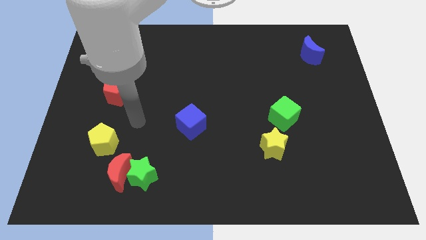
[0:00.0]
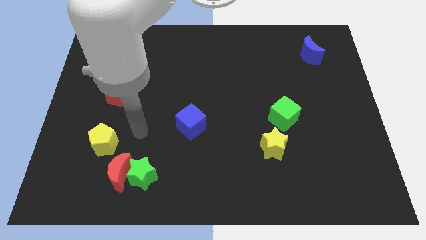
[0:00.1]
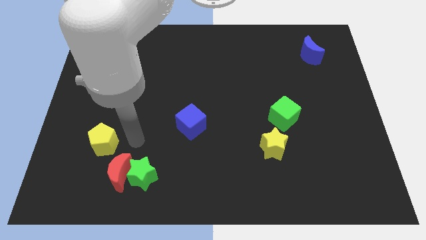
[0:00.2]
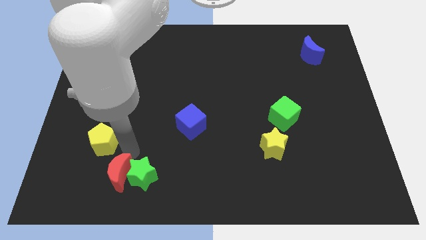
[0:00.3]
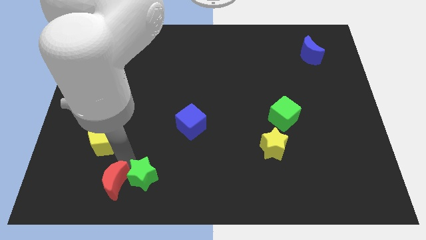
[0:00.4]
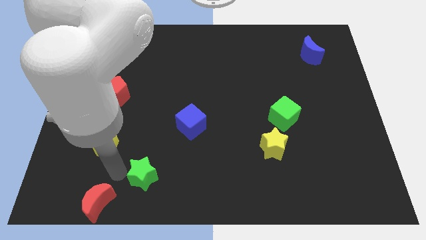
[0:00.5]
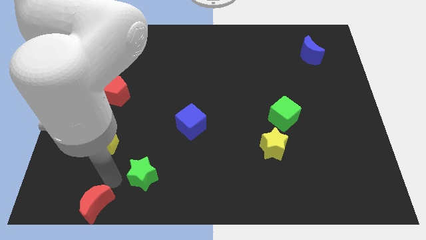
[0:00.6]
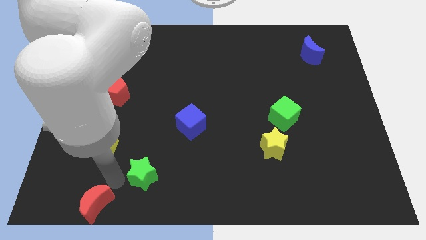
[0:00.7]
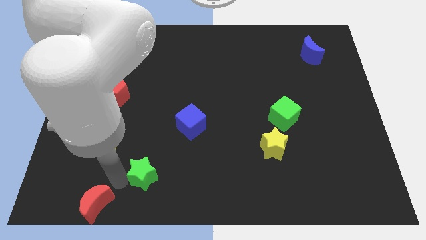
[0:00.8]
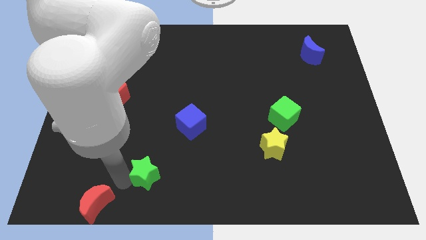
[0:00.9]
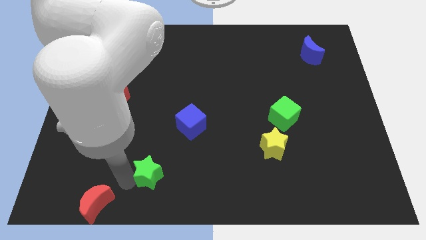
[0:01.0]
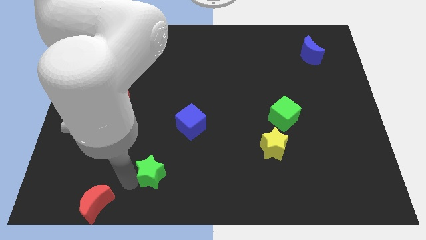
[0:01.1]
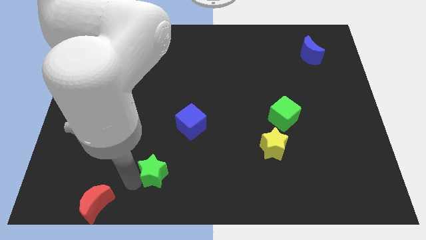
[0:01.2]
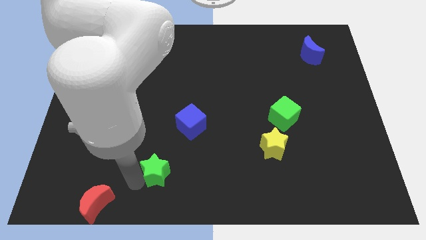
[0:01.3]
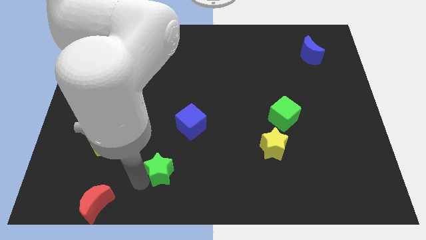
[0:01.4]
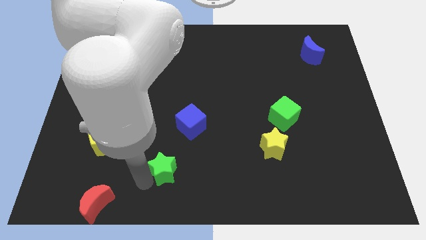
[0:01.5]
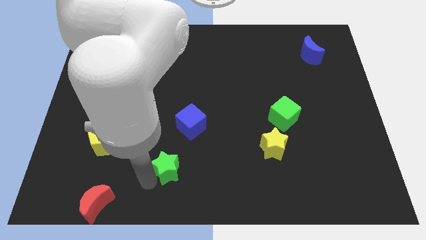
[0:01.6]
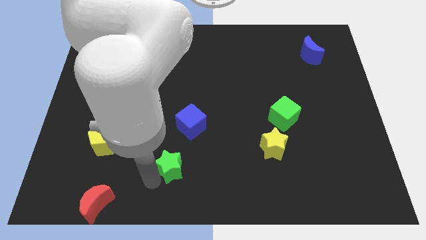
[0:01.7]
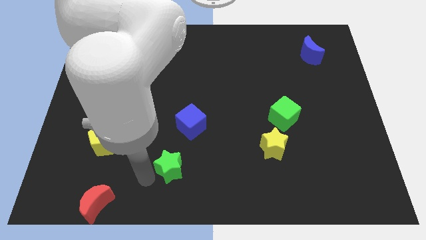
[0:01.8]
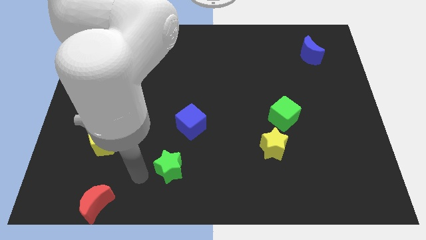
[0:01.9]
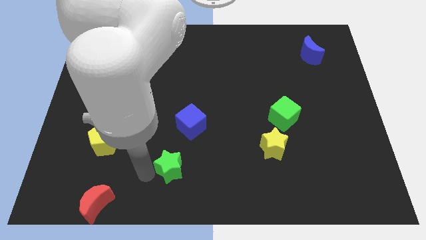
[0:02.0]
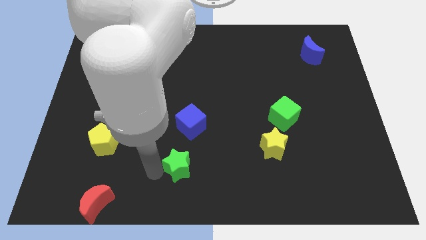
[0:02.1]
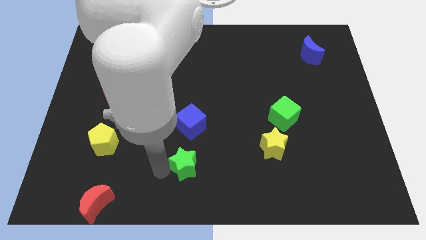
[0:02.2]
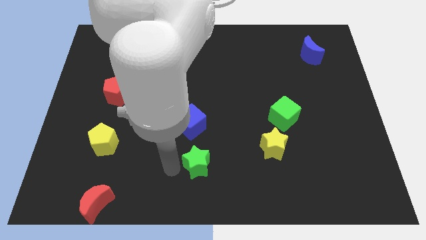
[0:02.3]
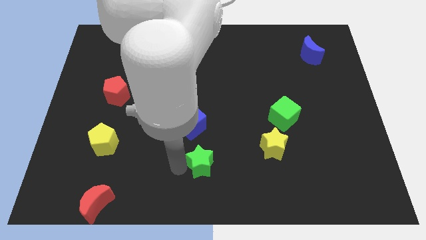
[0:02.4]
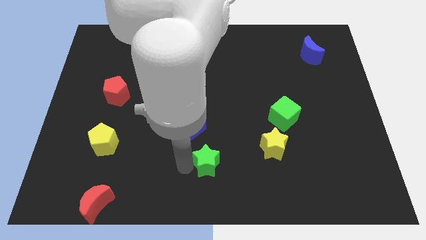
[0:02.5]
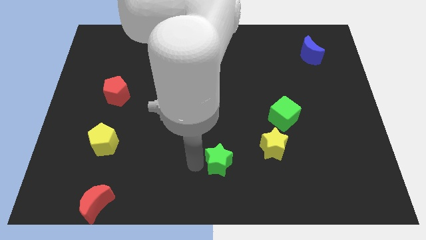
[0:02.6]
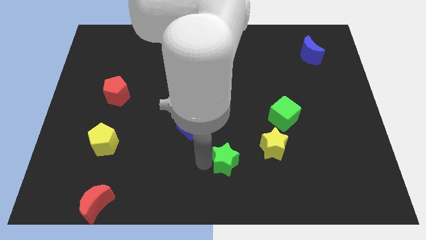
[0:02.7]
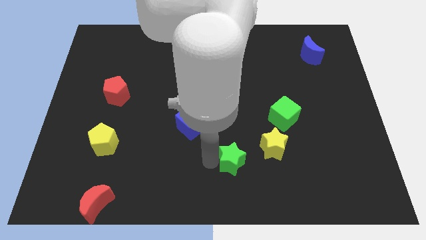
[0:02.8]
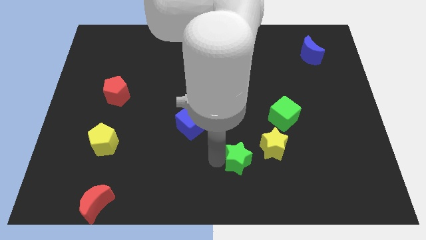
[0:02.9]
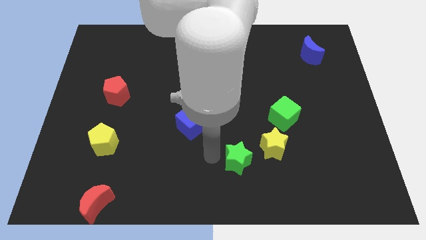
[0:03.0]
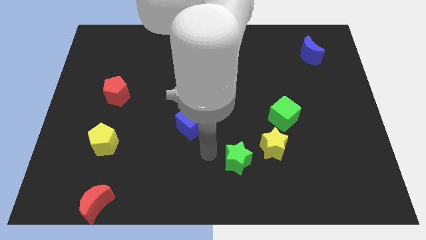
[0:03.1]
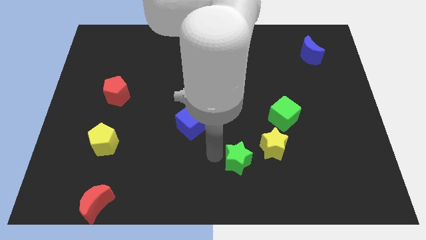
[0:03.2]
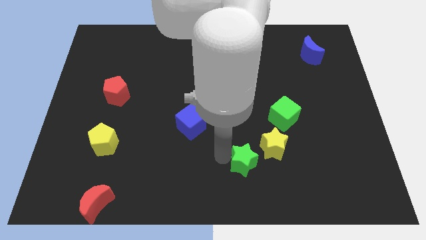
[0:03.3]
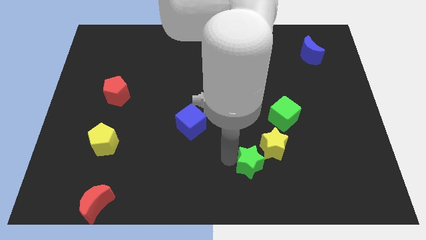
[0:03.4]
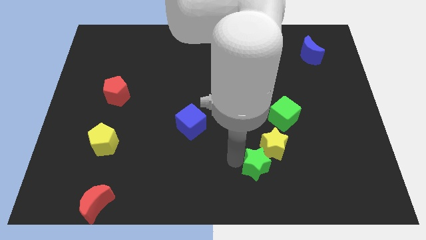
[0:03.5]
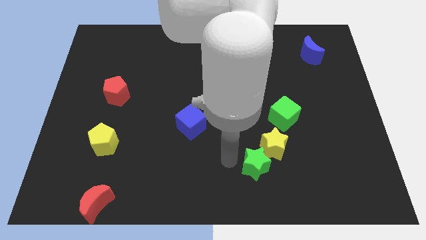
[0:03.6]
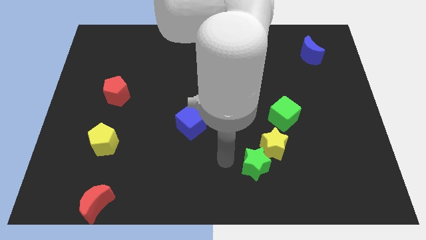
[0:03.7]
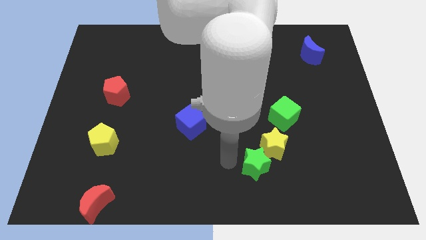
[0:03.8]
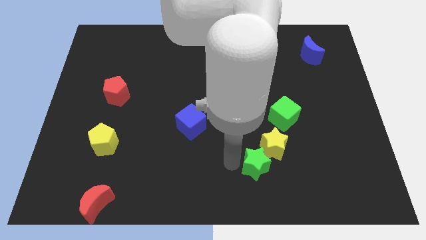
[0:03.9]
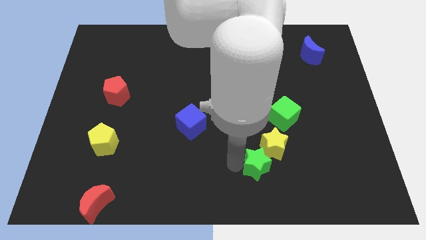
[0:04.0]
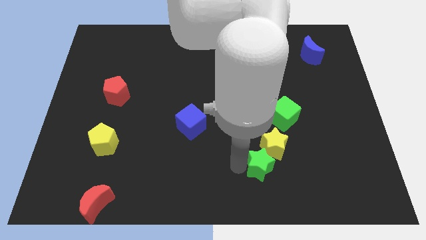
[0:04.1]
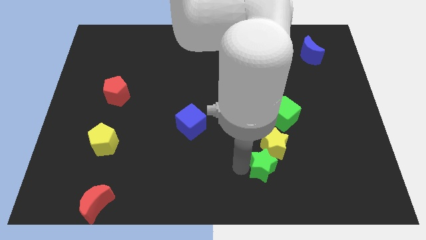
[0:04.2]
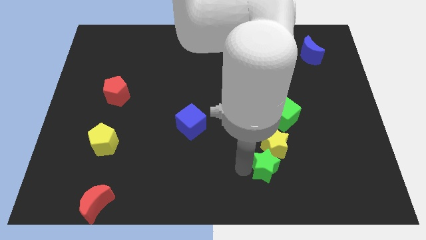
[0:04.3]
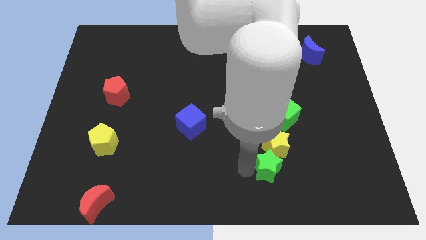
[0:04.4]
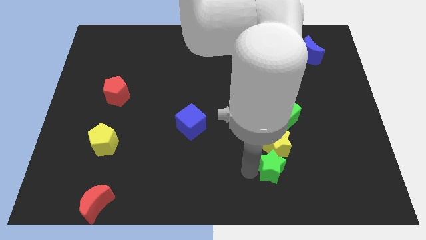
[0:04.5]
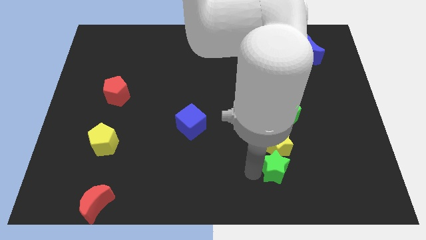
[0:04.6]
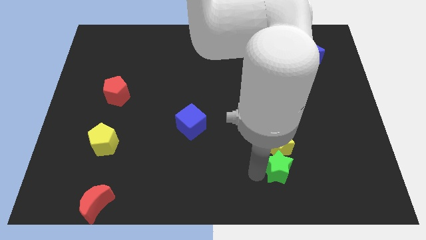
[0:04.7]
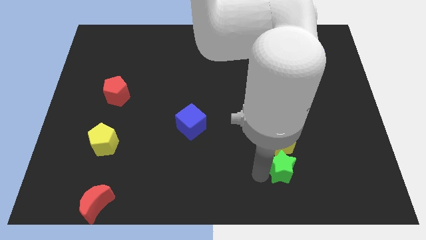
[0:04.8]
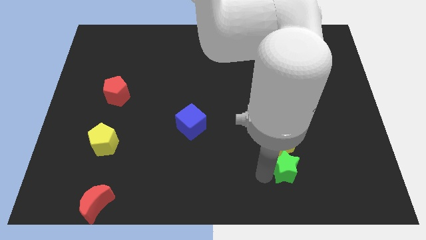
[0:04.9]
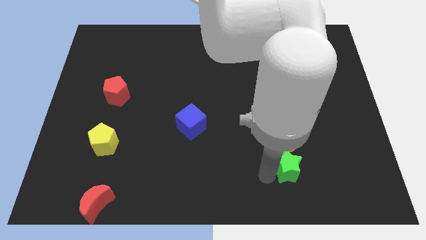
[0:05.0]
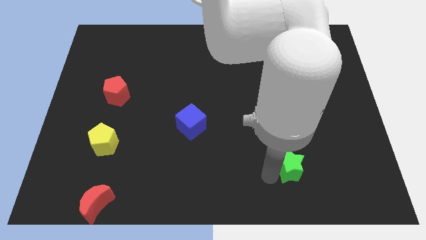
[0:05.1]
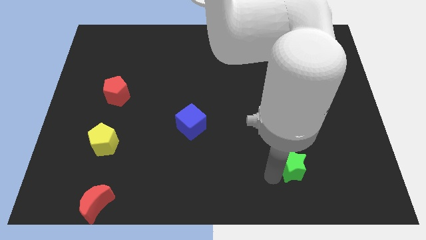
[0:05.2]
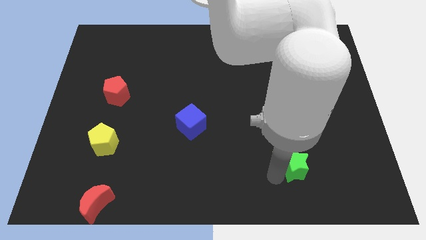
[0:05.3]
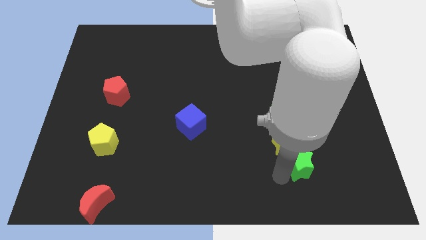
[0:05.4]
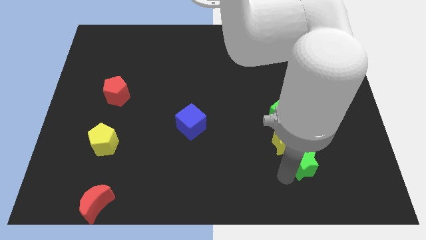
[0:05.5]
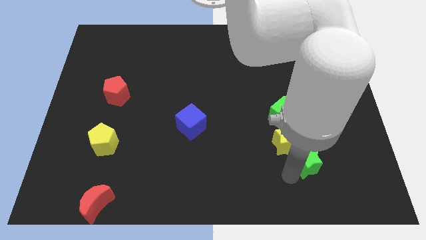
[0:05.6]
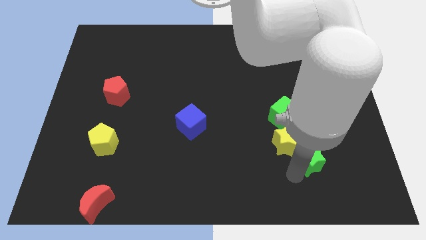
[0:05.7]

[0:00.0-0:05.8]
push the green star right of the yellow star

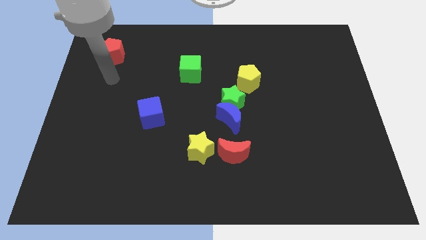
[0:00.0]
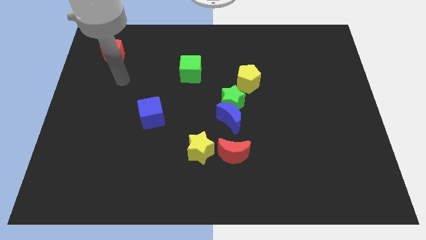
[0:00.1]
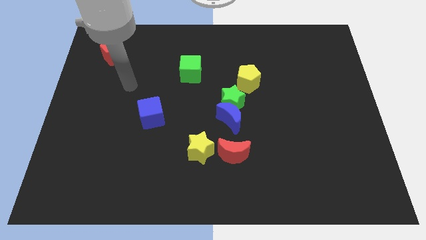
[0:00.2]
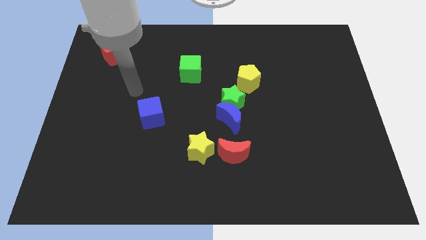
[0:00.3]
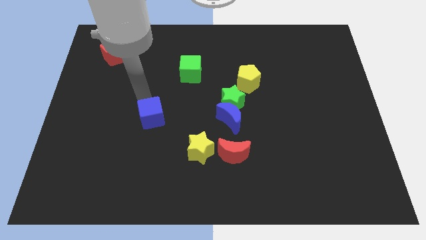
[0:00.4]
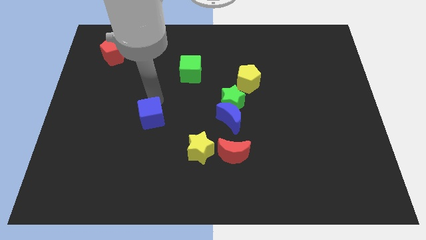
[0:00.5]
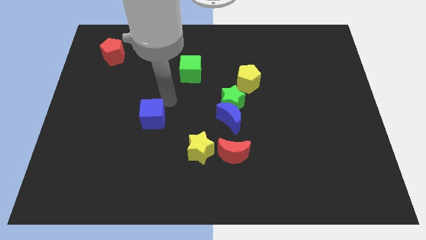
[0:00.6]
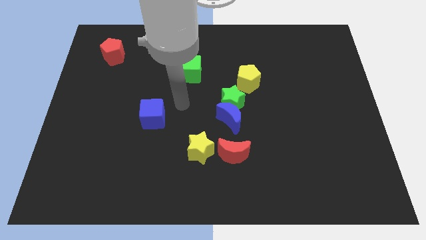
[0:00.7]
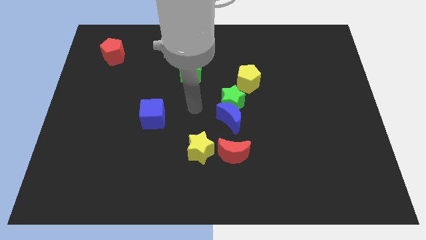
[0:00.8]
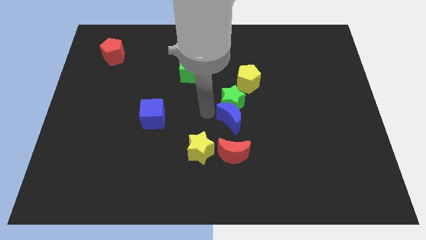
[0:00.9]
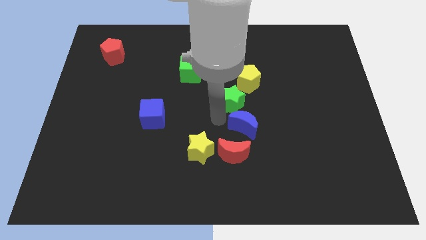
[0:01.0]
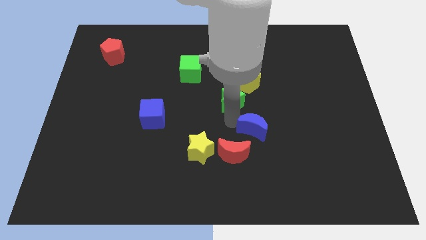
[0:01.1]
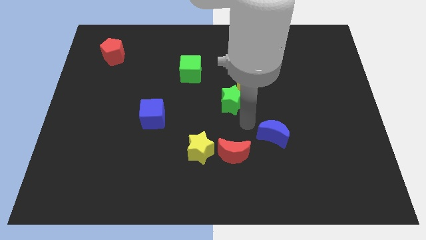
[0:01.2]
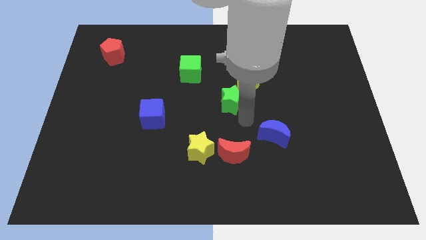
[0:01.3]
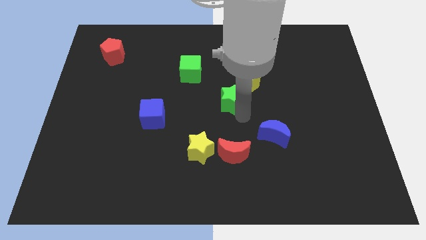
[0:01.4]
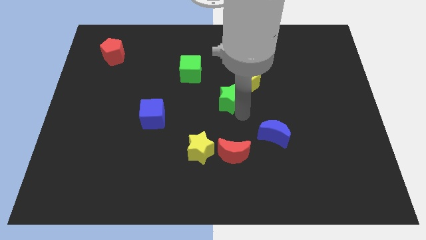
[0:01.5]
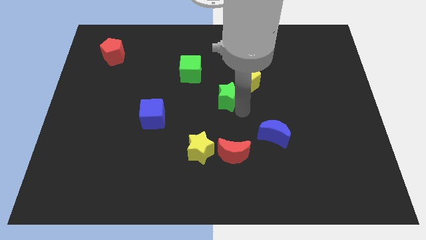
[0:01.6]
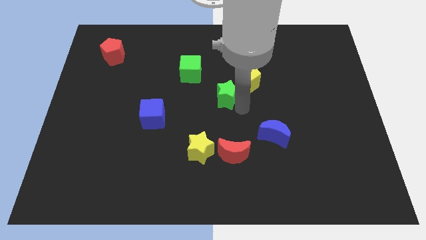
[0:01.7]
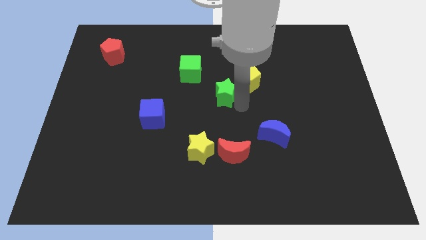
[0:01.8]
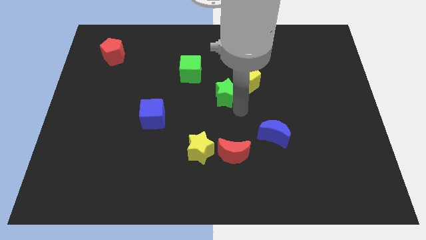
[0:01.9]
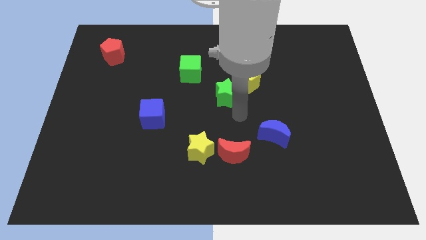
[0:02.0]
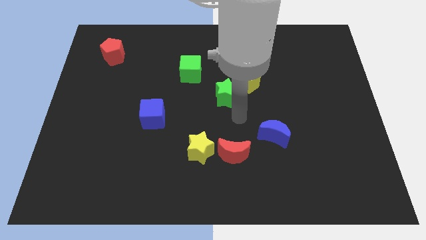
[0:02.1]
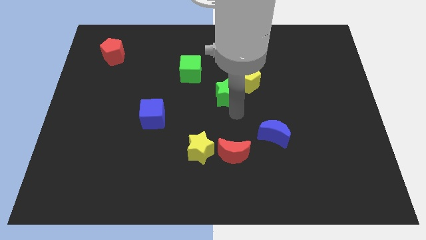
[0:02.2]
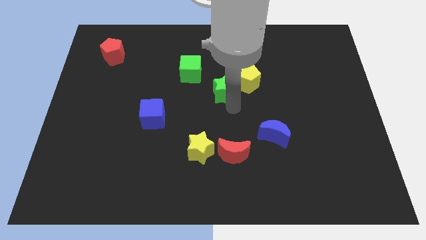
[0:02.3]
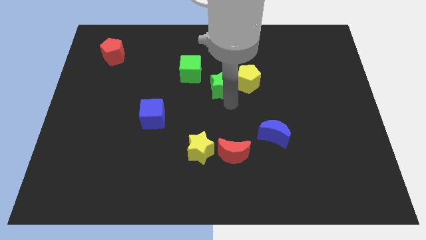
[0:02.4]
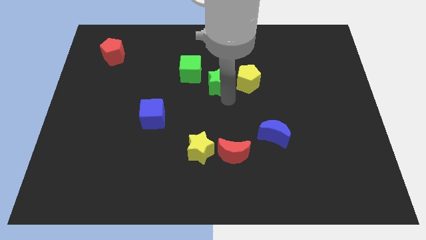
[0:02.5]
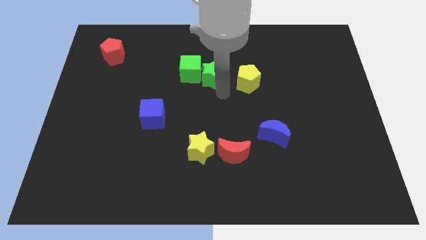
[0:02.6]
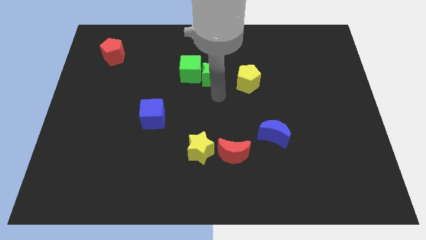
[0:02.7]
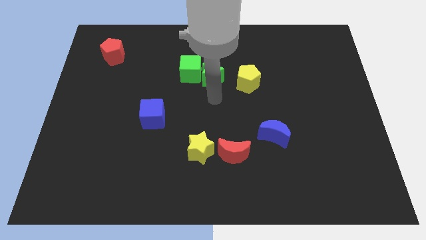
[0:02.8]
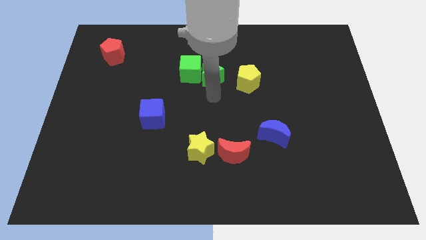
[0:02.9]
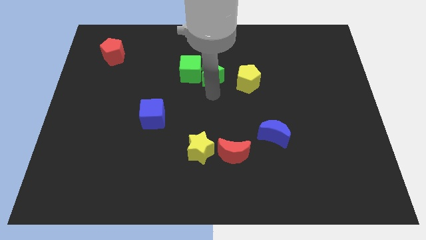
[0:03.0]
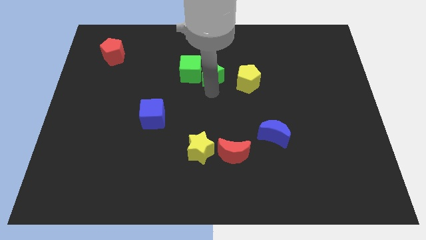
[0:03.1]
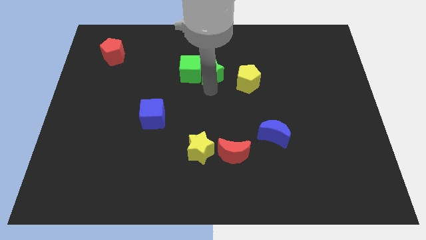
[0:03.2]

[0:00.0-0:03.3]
slide the green star to the top right side of the green cube
